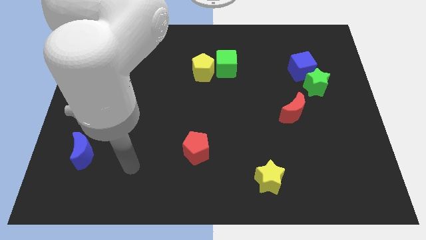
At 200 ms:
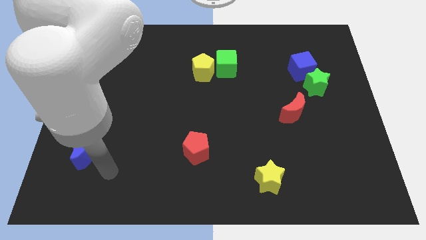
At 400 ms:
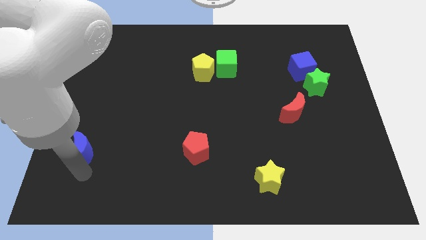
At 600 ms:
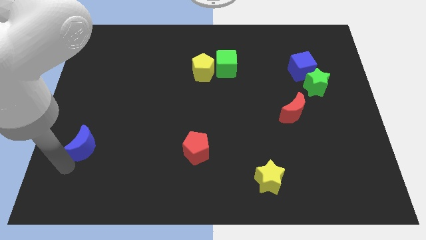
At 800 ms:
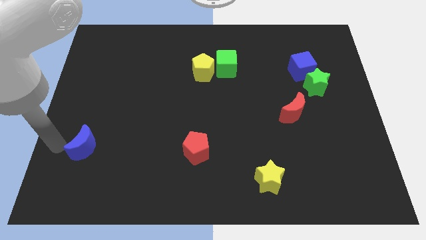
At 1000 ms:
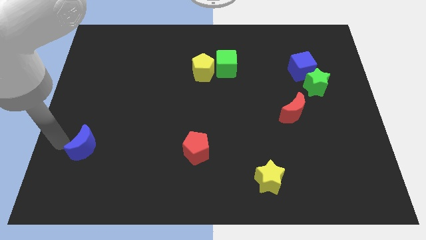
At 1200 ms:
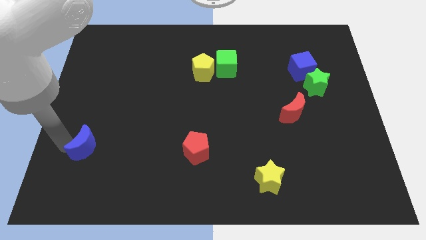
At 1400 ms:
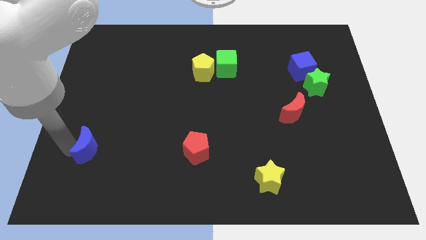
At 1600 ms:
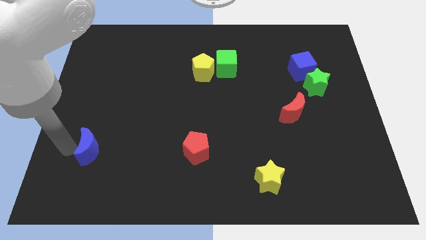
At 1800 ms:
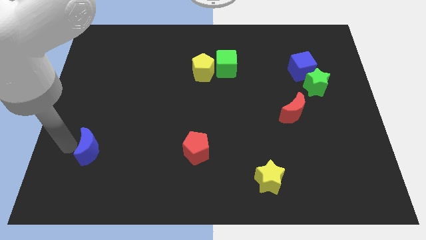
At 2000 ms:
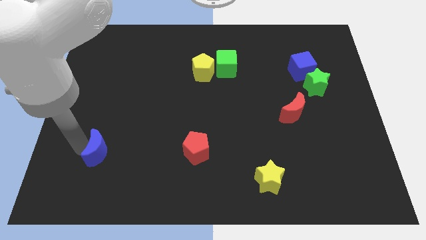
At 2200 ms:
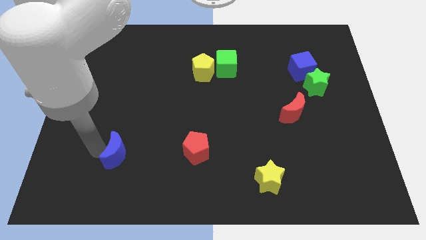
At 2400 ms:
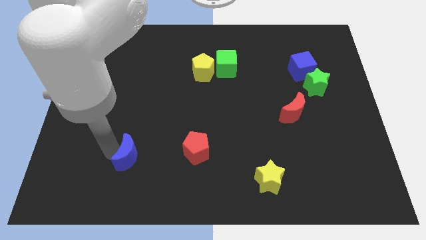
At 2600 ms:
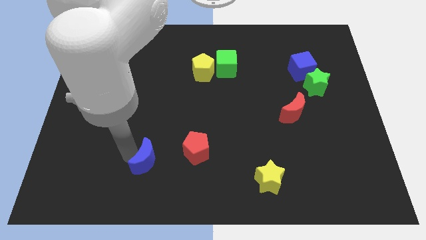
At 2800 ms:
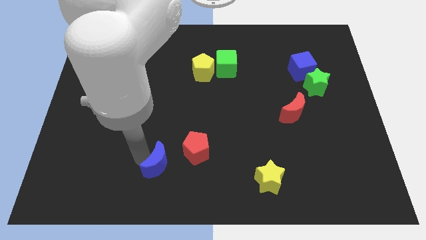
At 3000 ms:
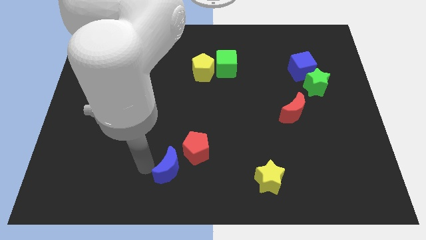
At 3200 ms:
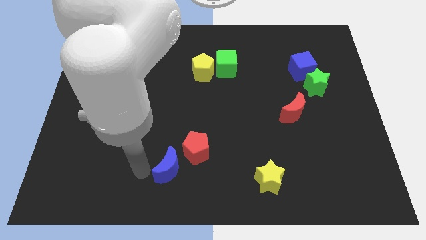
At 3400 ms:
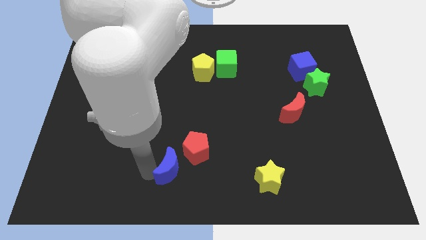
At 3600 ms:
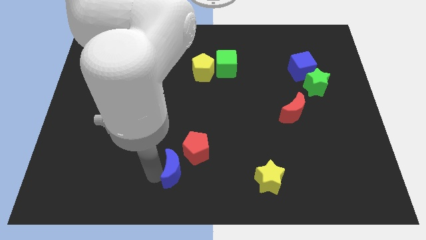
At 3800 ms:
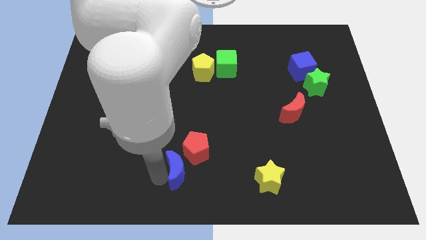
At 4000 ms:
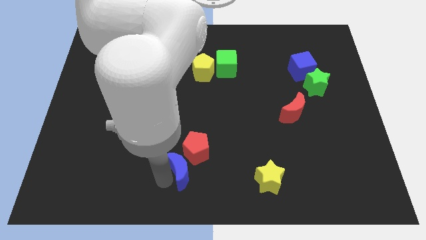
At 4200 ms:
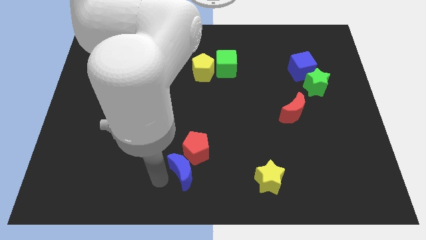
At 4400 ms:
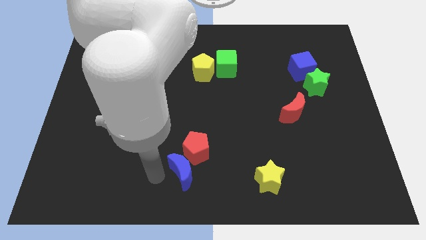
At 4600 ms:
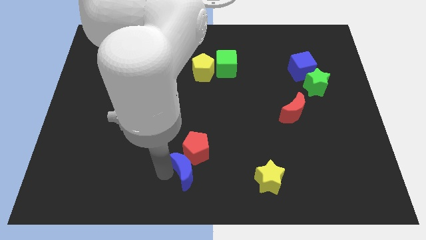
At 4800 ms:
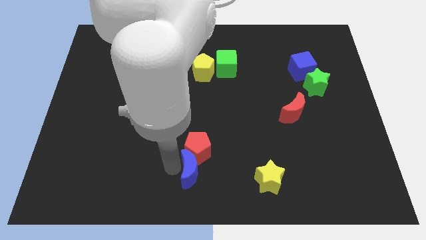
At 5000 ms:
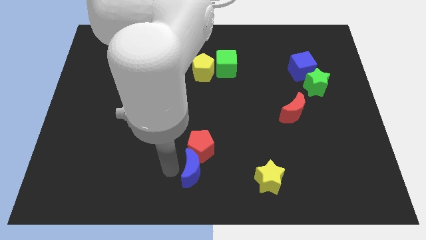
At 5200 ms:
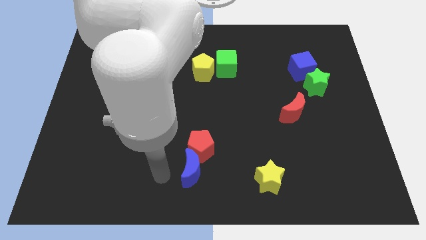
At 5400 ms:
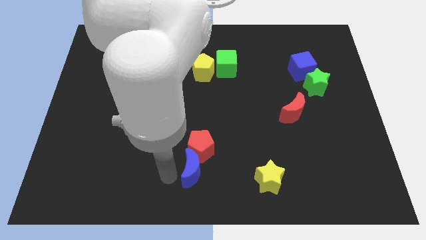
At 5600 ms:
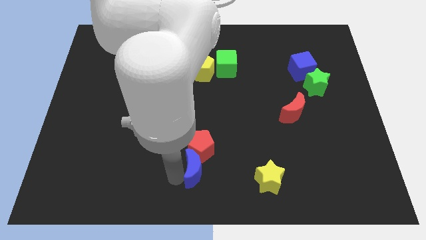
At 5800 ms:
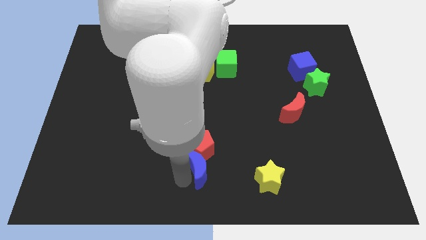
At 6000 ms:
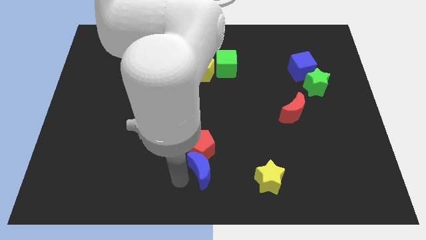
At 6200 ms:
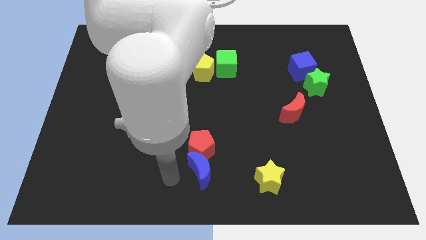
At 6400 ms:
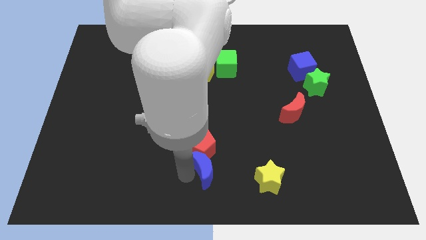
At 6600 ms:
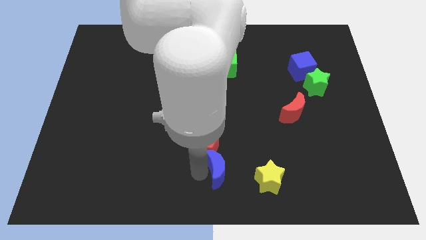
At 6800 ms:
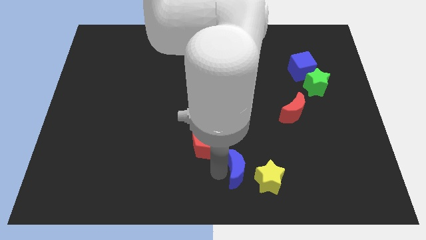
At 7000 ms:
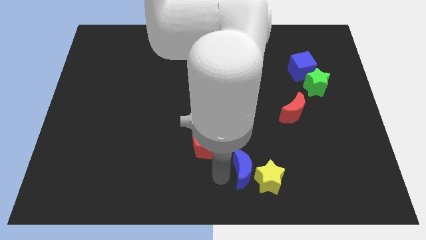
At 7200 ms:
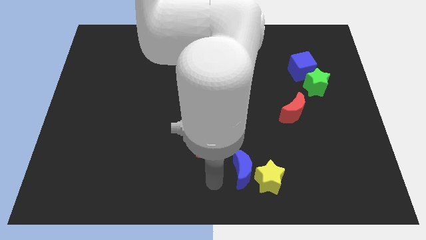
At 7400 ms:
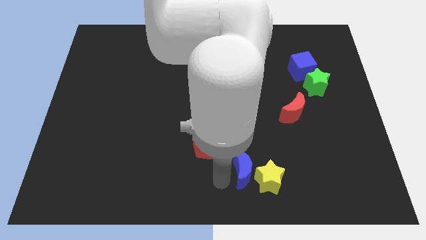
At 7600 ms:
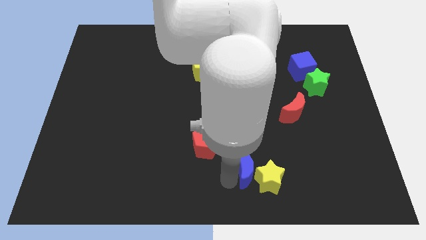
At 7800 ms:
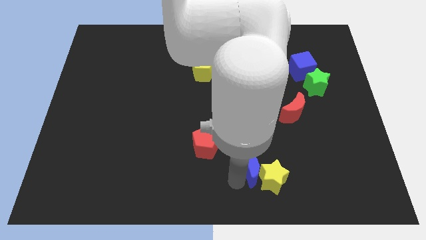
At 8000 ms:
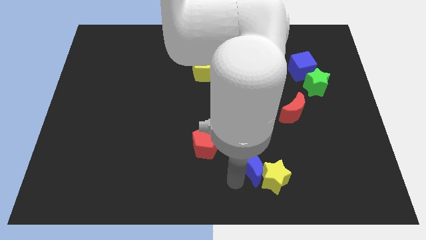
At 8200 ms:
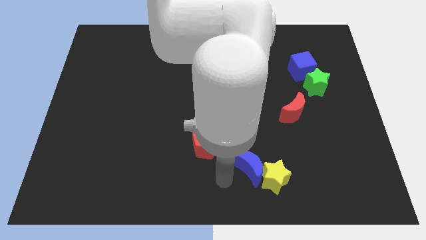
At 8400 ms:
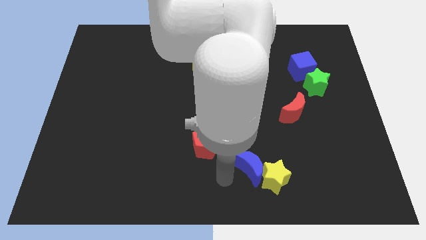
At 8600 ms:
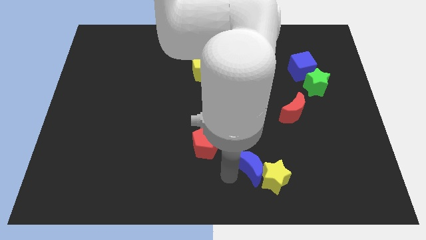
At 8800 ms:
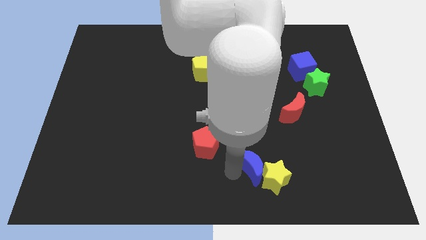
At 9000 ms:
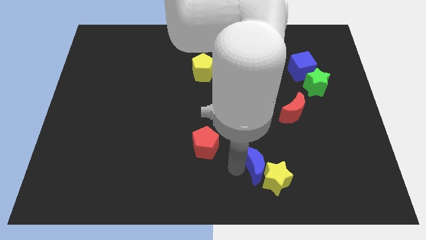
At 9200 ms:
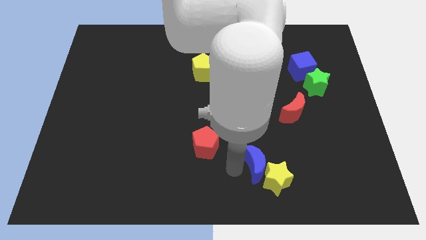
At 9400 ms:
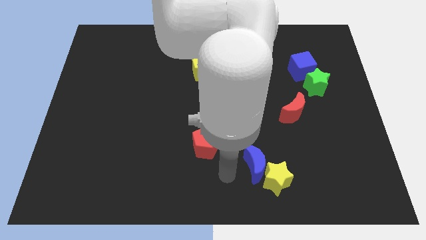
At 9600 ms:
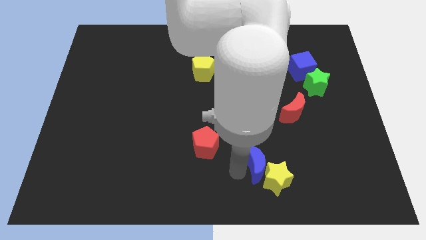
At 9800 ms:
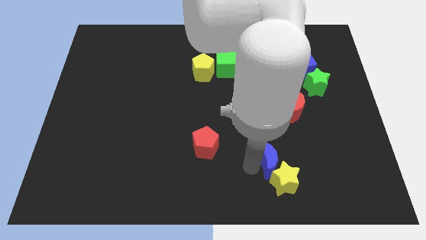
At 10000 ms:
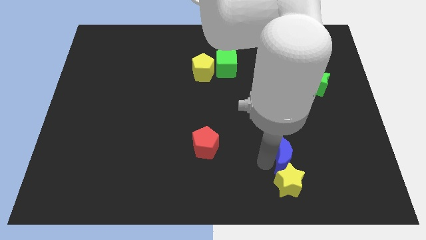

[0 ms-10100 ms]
slide the blue moon to the bottom side of the red moon

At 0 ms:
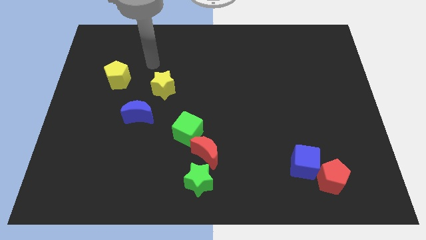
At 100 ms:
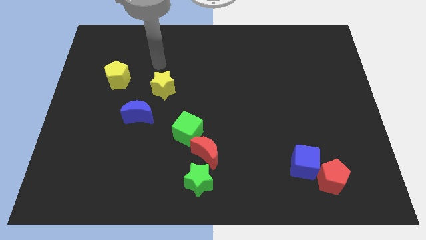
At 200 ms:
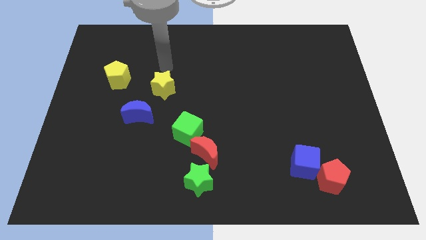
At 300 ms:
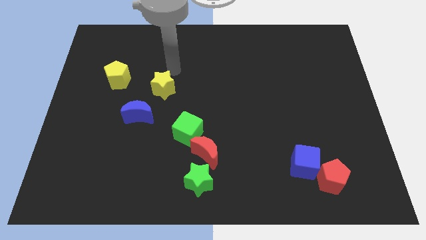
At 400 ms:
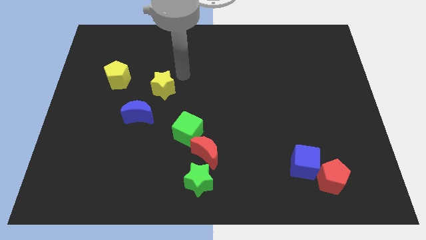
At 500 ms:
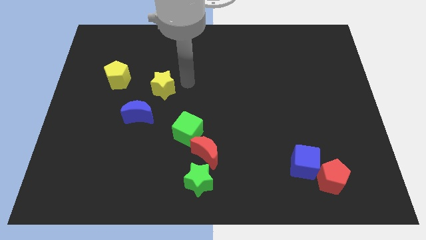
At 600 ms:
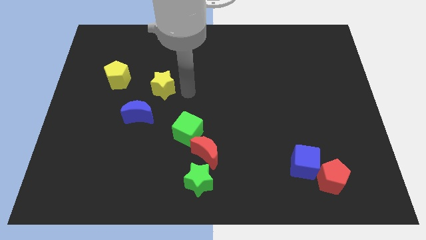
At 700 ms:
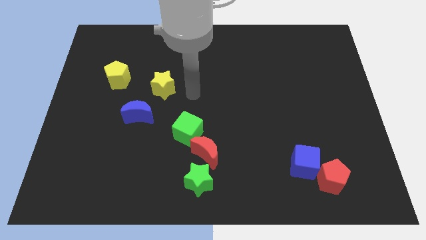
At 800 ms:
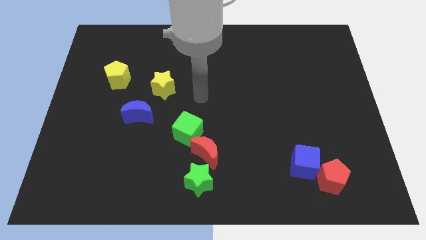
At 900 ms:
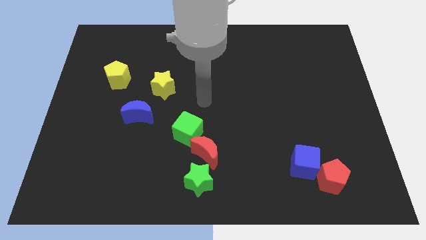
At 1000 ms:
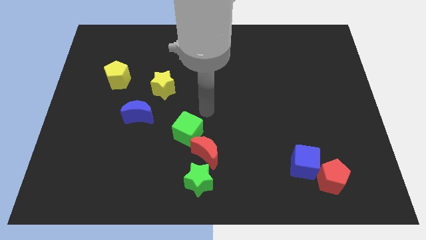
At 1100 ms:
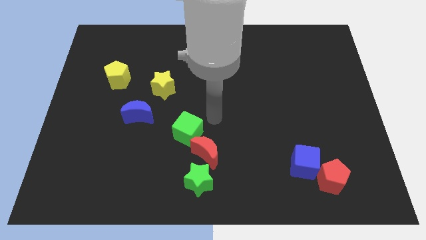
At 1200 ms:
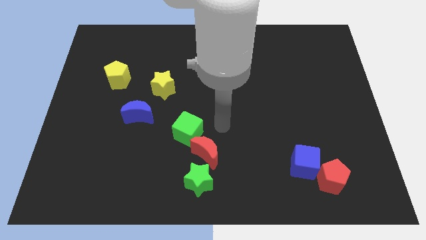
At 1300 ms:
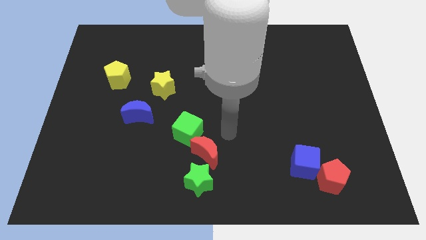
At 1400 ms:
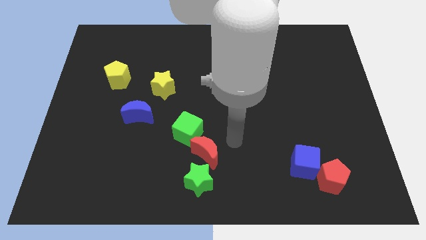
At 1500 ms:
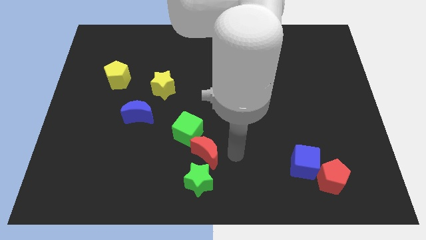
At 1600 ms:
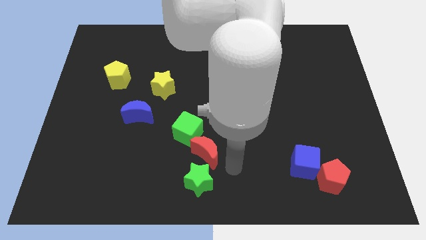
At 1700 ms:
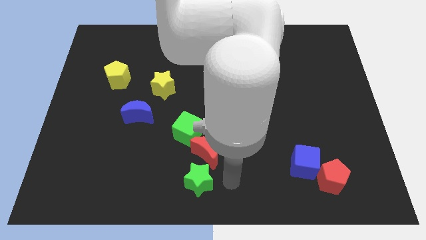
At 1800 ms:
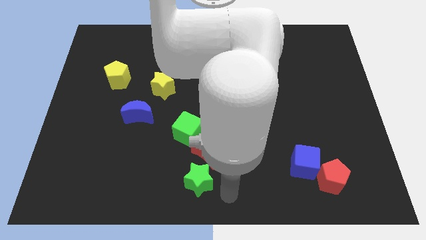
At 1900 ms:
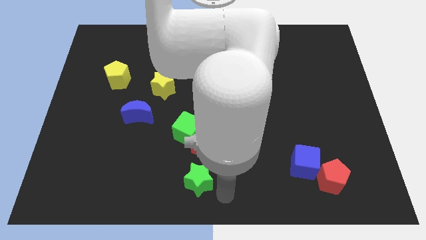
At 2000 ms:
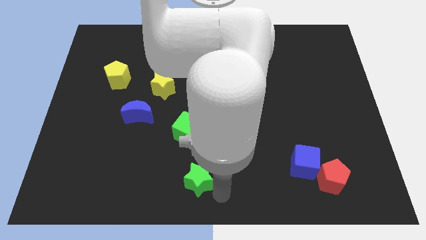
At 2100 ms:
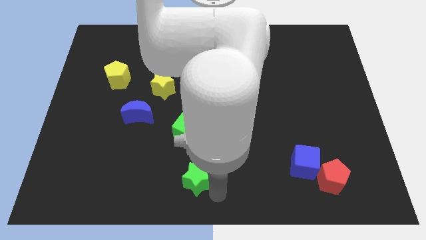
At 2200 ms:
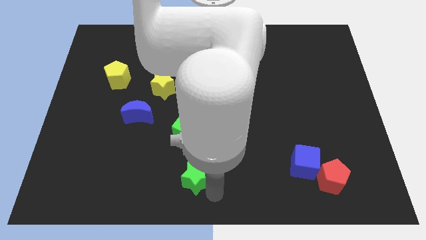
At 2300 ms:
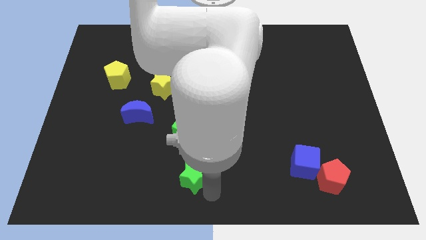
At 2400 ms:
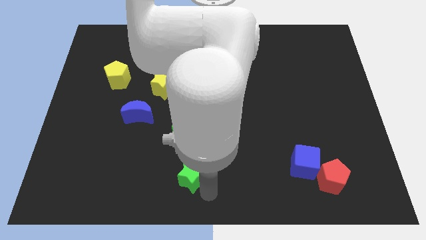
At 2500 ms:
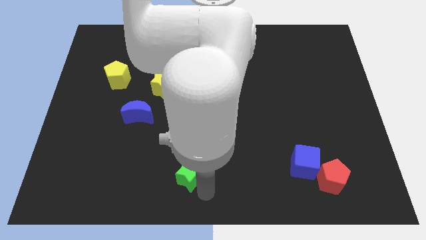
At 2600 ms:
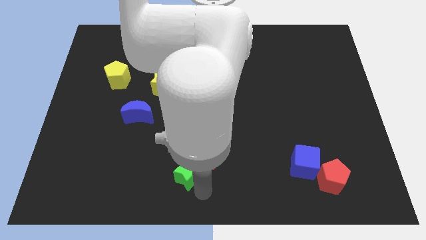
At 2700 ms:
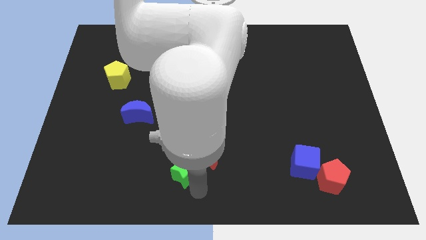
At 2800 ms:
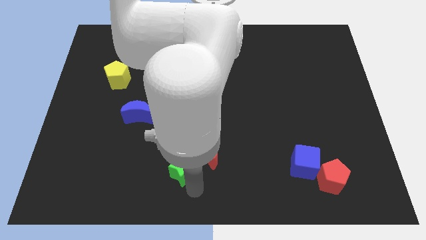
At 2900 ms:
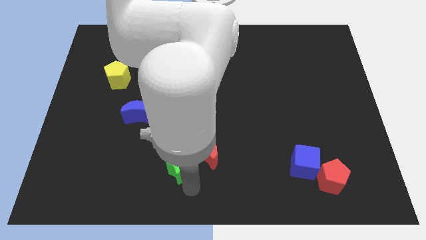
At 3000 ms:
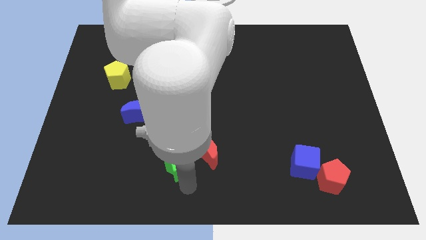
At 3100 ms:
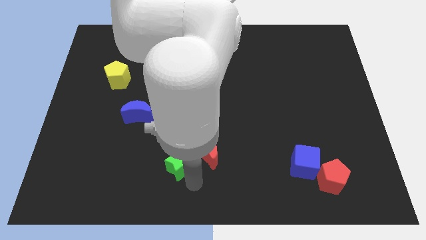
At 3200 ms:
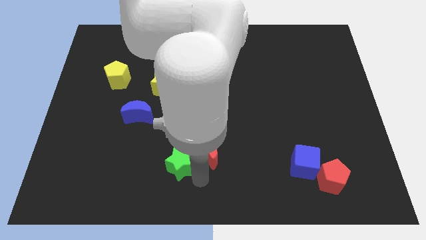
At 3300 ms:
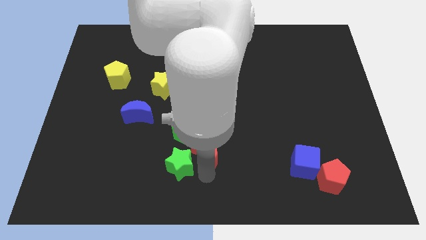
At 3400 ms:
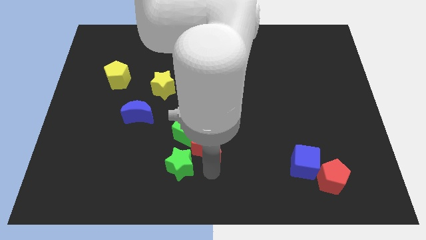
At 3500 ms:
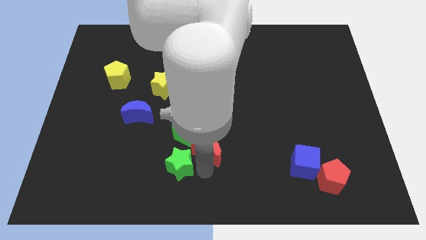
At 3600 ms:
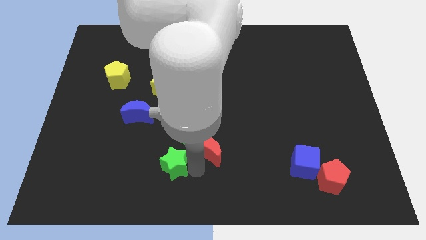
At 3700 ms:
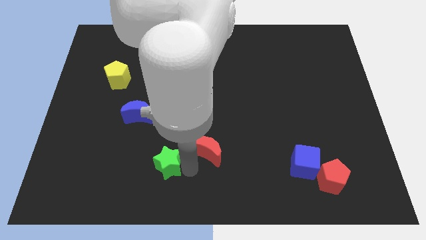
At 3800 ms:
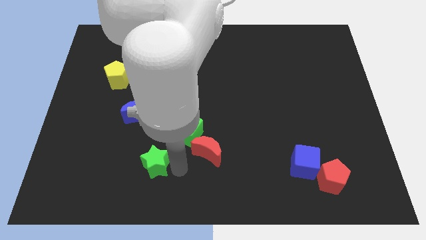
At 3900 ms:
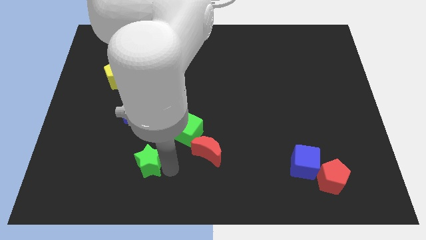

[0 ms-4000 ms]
put the green star to the bottom of the blue moon
